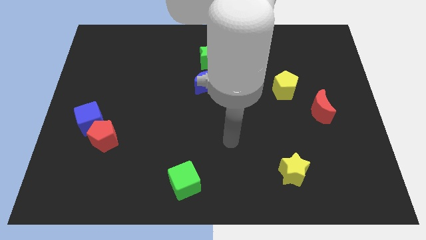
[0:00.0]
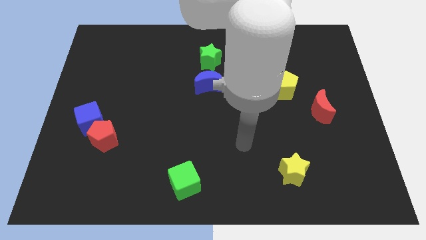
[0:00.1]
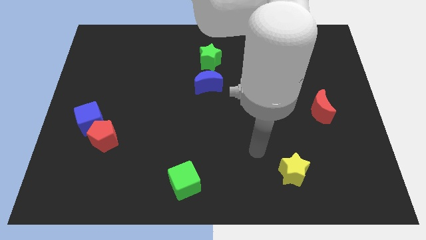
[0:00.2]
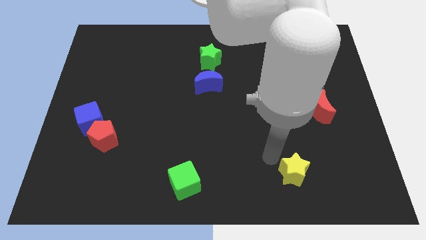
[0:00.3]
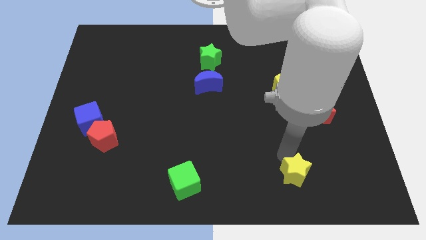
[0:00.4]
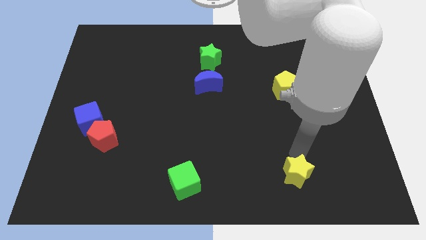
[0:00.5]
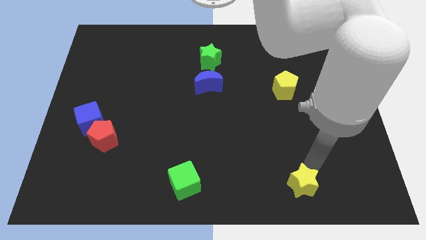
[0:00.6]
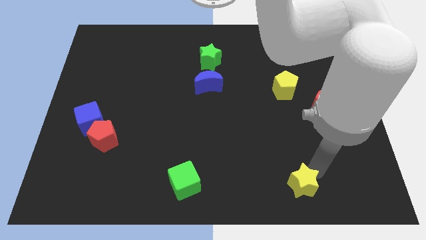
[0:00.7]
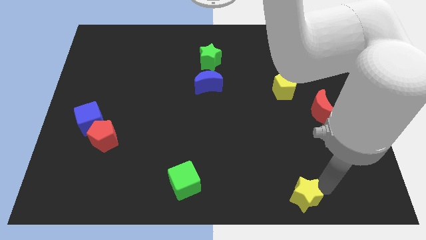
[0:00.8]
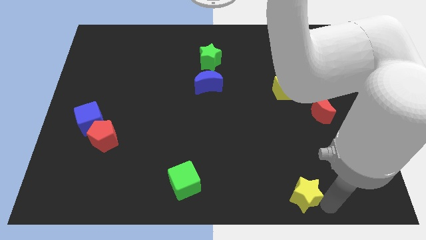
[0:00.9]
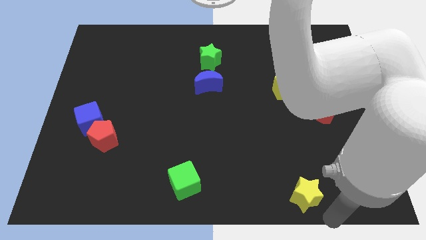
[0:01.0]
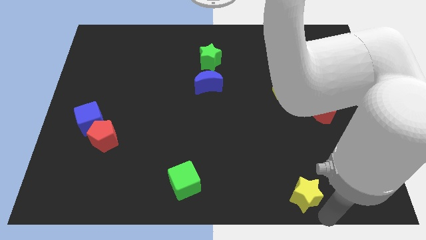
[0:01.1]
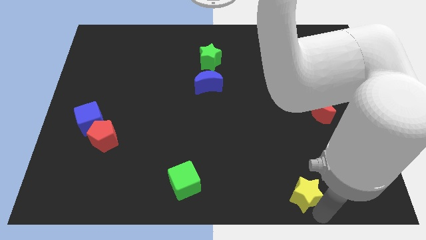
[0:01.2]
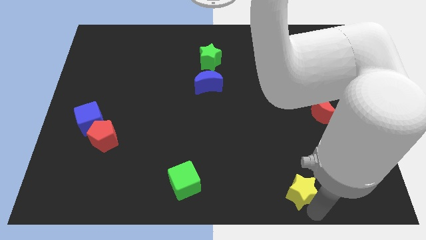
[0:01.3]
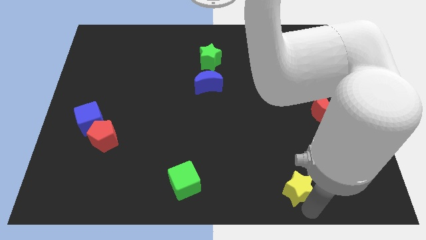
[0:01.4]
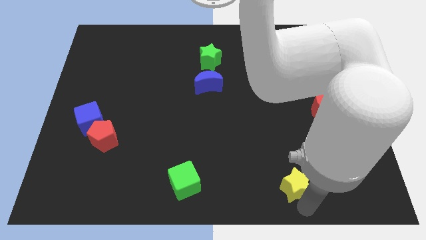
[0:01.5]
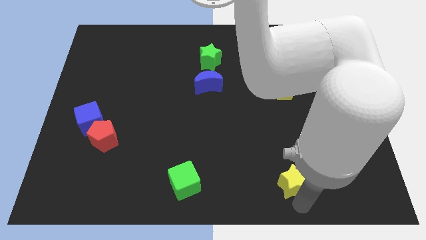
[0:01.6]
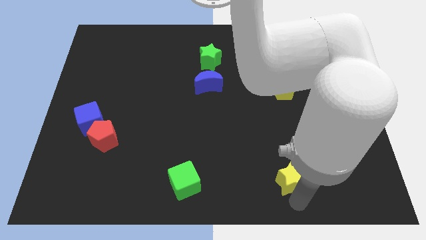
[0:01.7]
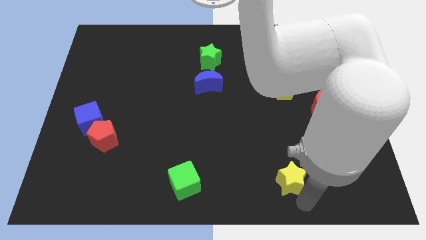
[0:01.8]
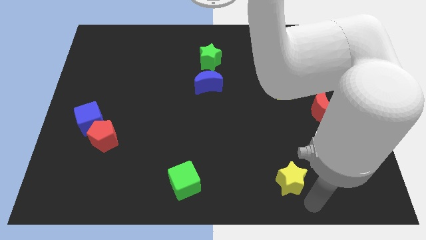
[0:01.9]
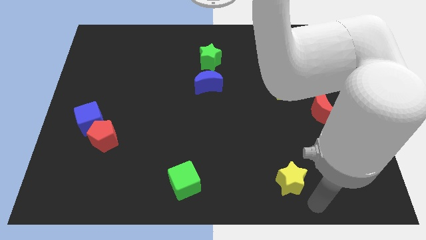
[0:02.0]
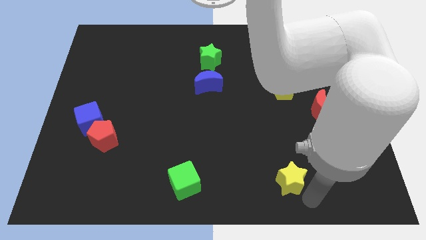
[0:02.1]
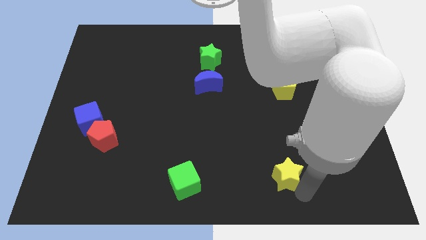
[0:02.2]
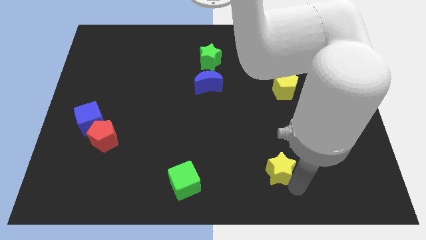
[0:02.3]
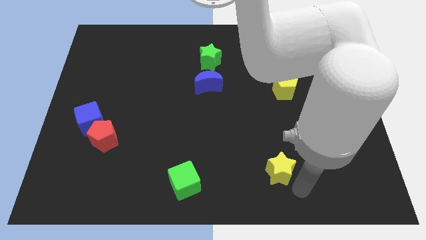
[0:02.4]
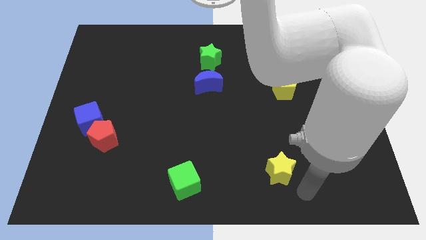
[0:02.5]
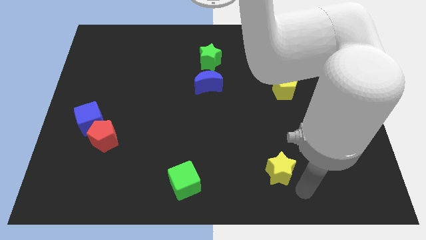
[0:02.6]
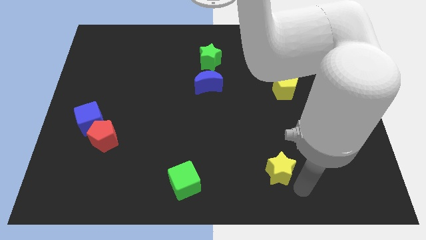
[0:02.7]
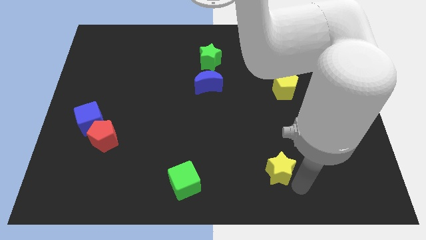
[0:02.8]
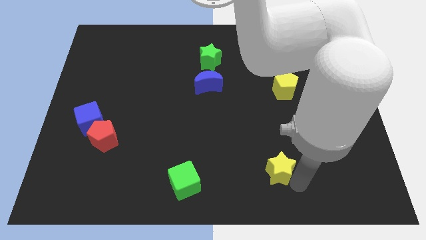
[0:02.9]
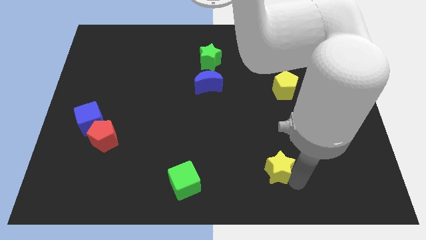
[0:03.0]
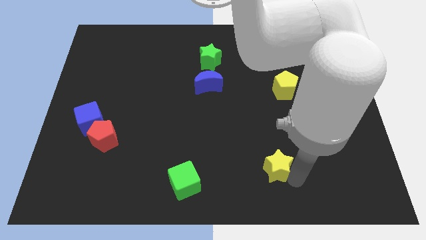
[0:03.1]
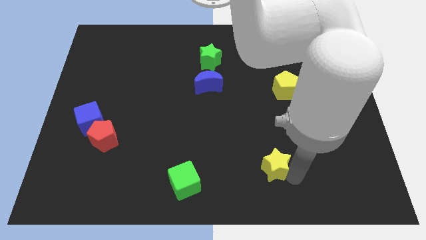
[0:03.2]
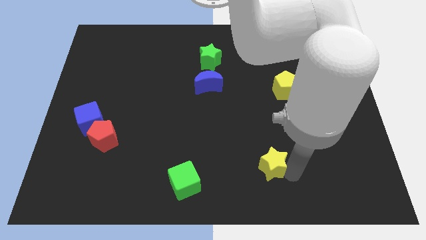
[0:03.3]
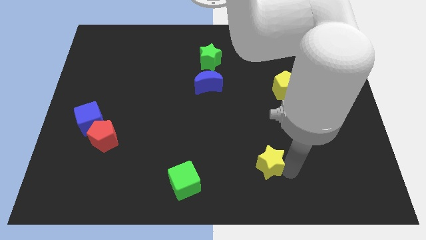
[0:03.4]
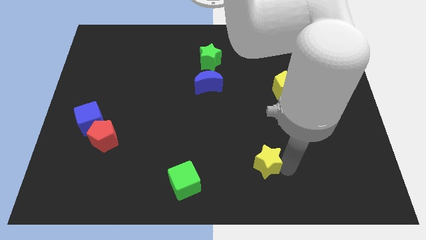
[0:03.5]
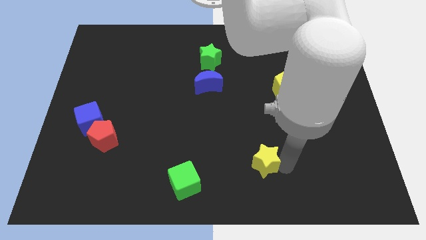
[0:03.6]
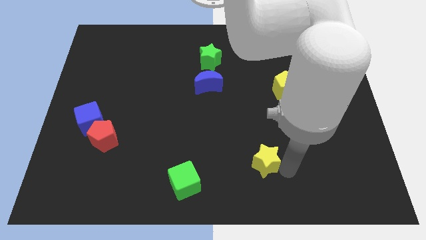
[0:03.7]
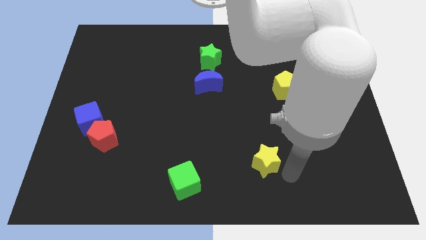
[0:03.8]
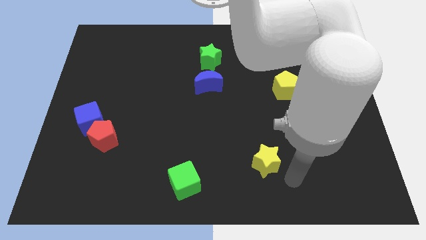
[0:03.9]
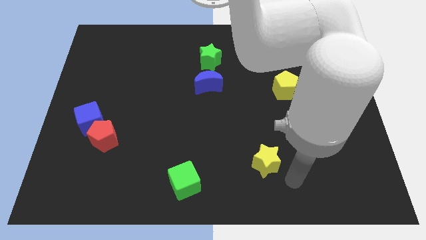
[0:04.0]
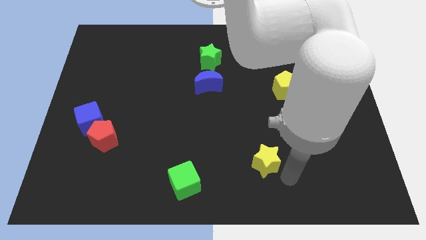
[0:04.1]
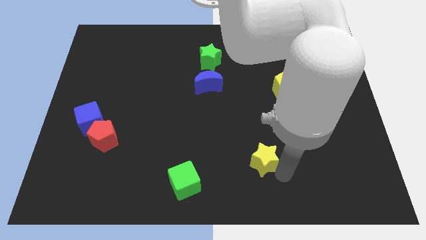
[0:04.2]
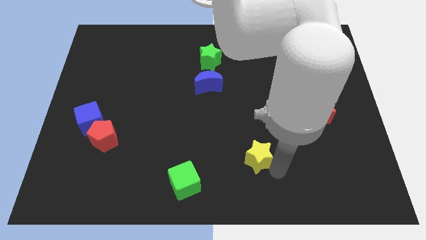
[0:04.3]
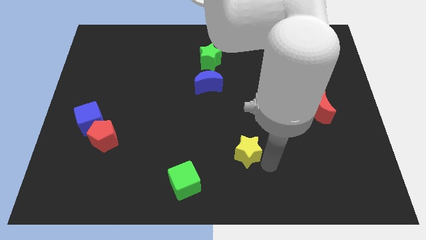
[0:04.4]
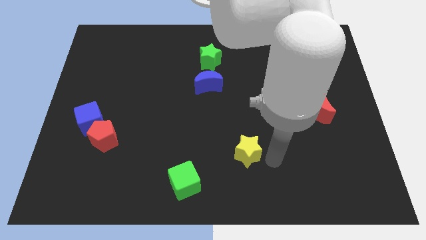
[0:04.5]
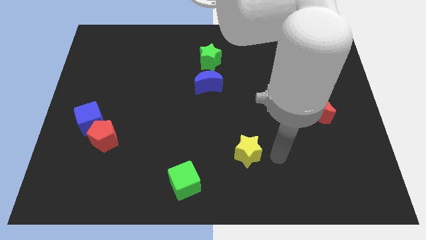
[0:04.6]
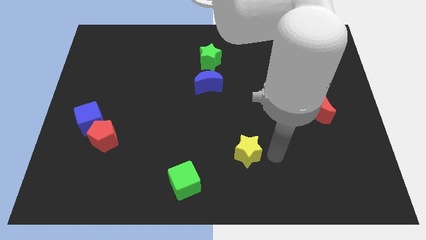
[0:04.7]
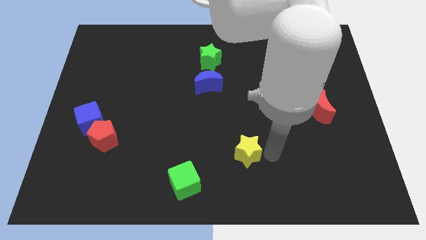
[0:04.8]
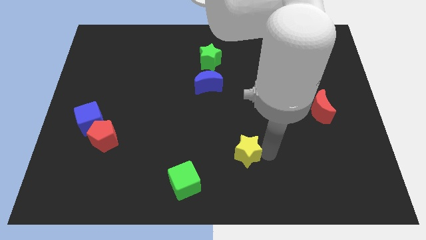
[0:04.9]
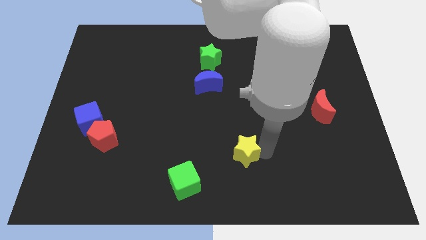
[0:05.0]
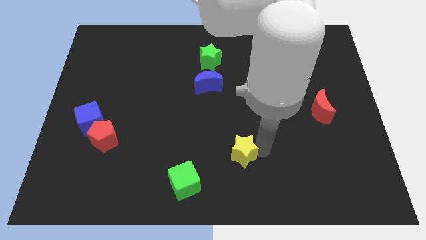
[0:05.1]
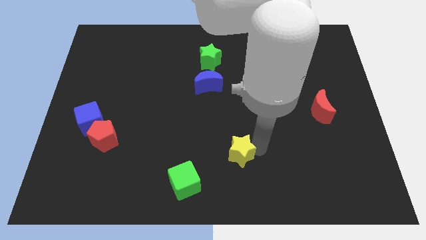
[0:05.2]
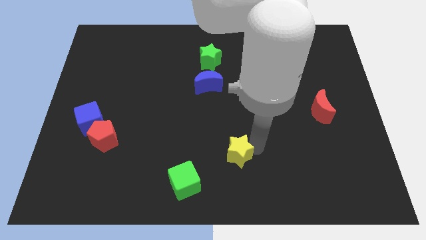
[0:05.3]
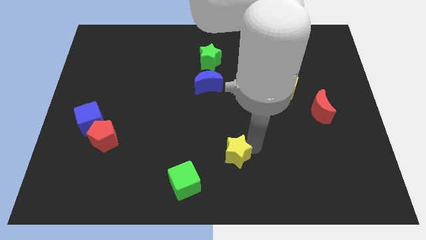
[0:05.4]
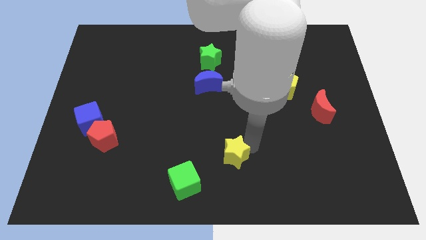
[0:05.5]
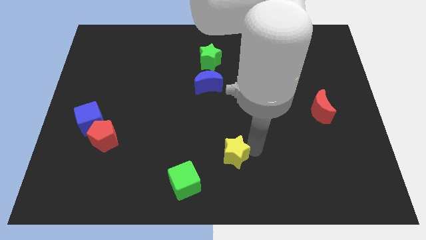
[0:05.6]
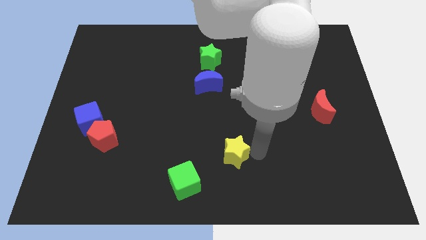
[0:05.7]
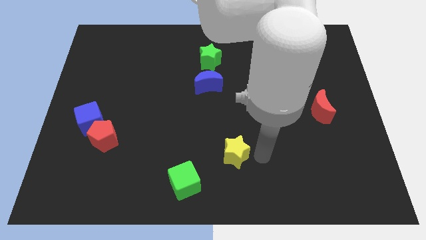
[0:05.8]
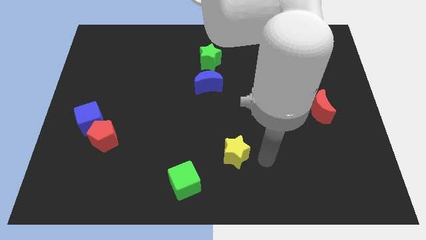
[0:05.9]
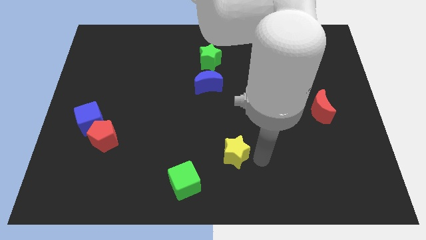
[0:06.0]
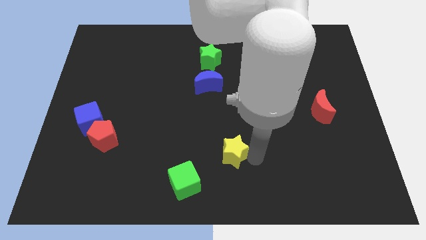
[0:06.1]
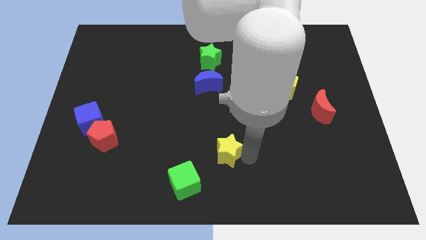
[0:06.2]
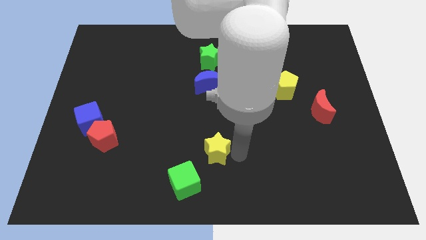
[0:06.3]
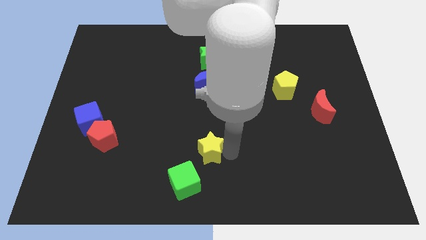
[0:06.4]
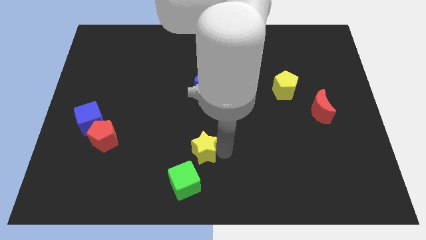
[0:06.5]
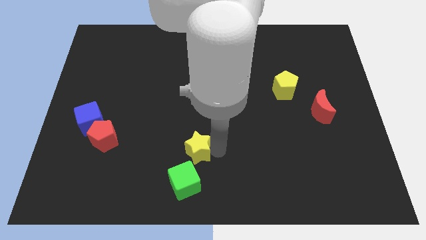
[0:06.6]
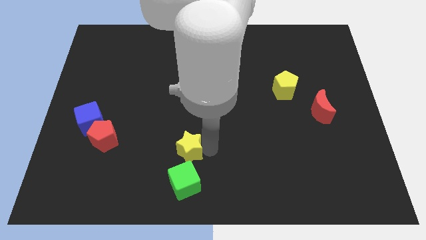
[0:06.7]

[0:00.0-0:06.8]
slide the yellow star to the left

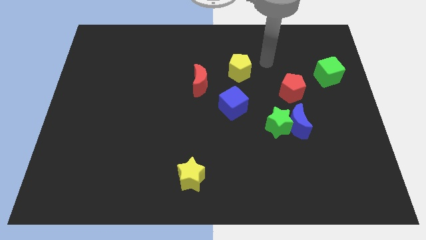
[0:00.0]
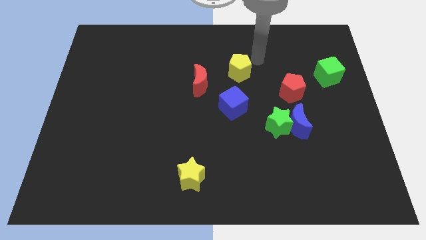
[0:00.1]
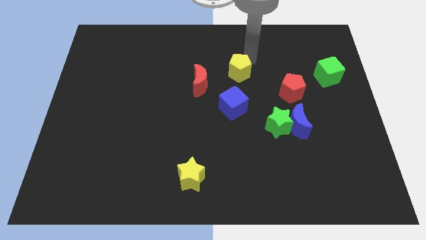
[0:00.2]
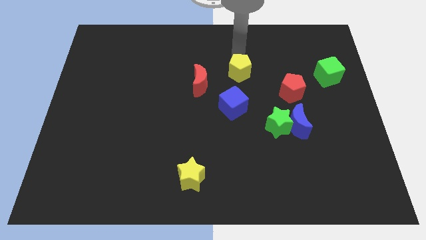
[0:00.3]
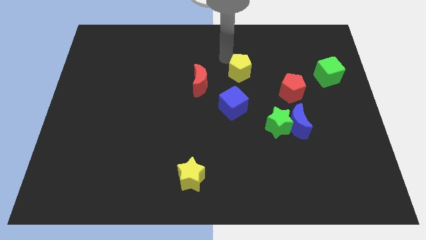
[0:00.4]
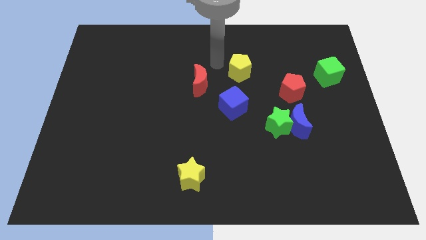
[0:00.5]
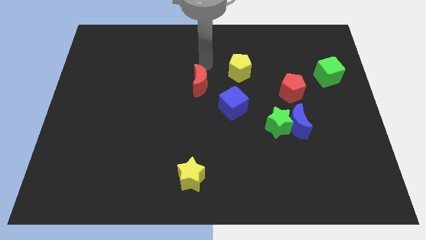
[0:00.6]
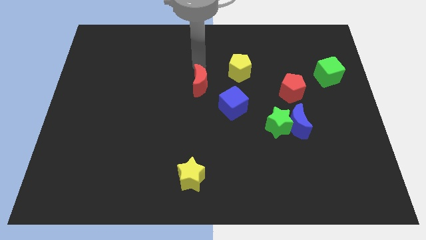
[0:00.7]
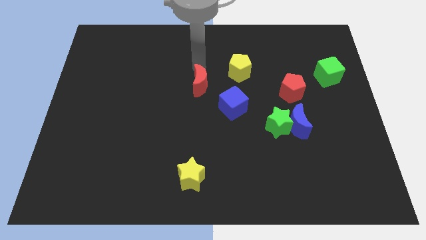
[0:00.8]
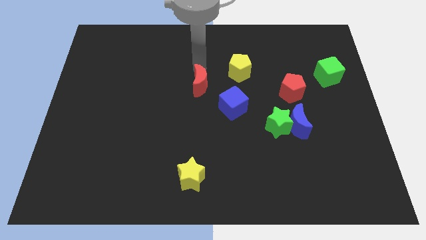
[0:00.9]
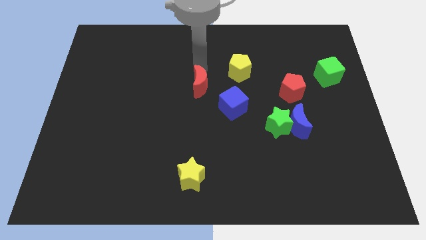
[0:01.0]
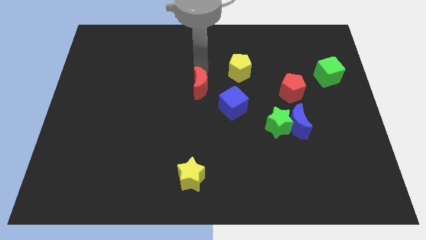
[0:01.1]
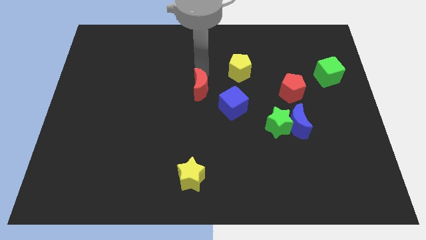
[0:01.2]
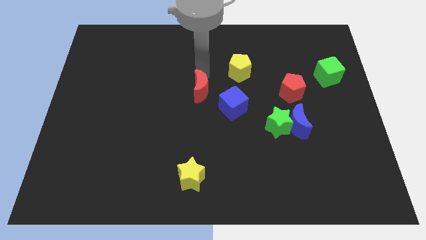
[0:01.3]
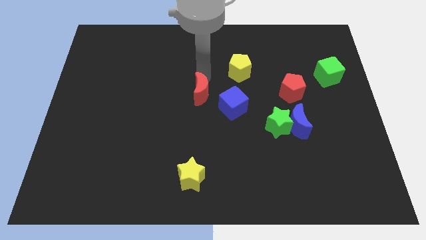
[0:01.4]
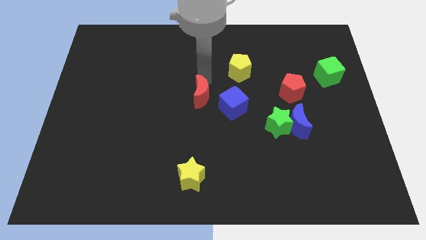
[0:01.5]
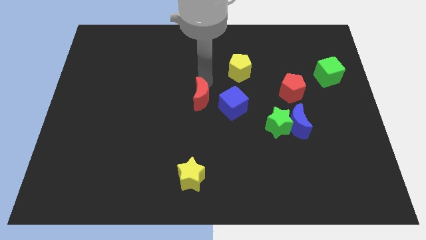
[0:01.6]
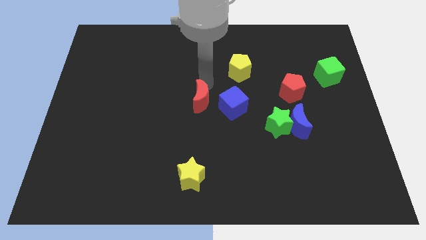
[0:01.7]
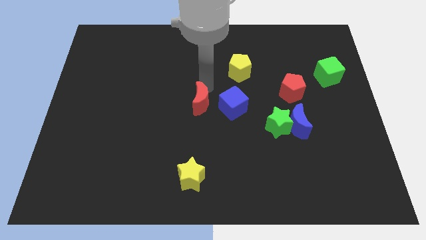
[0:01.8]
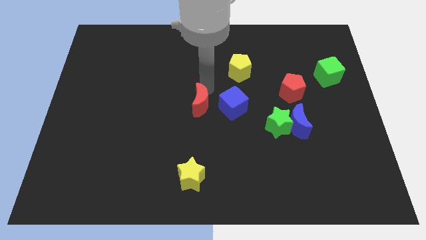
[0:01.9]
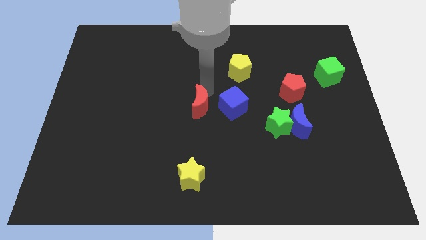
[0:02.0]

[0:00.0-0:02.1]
slide the red moon downwards slightly
